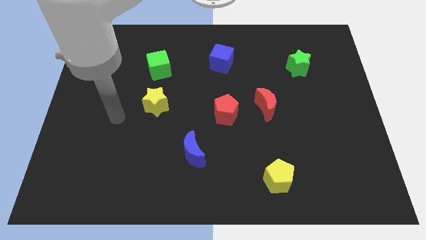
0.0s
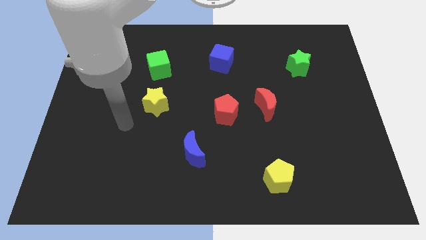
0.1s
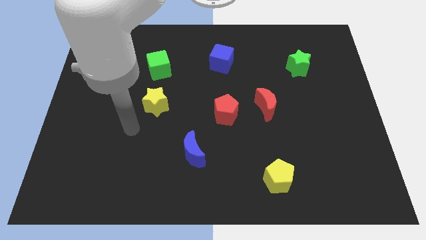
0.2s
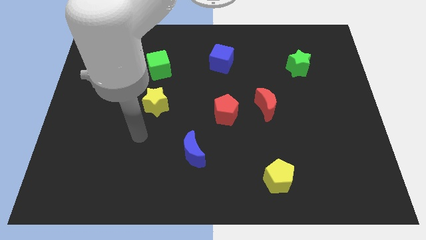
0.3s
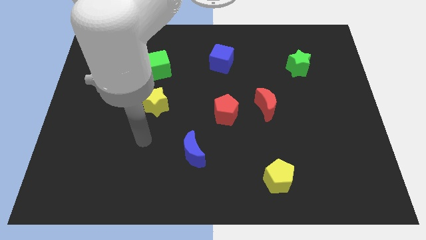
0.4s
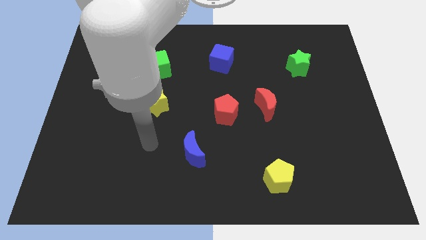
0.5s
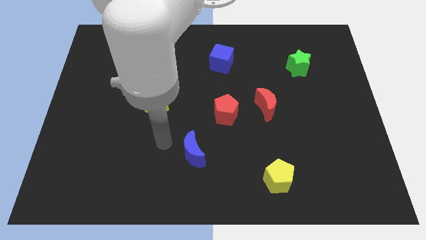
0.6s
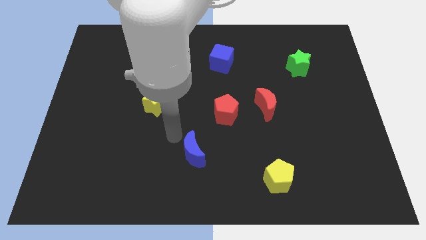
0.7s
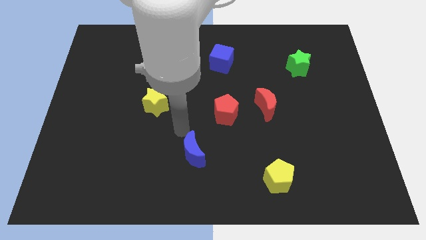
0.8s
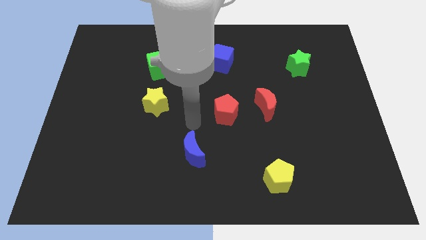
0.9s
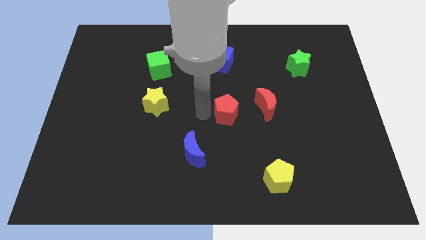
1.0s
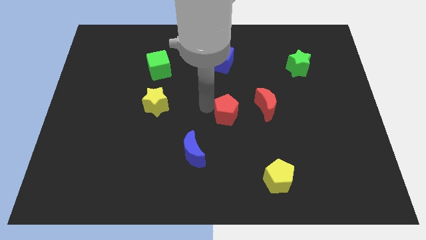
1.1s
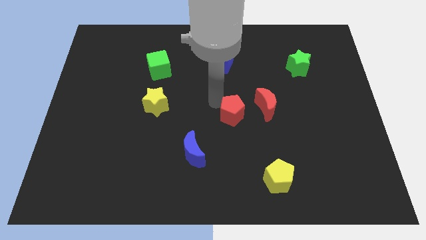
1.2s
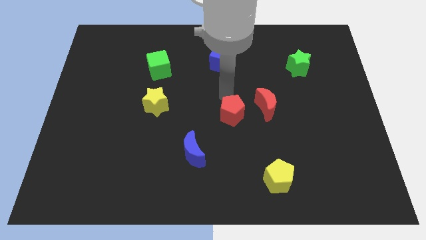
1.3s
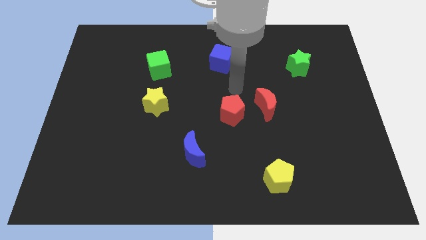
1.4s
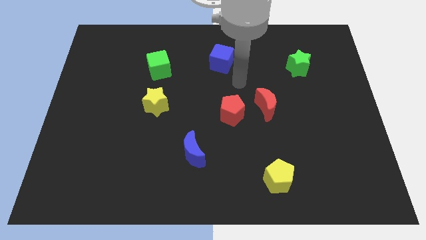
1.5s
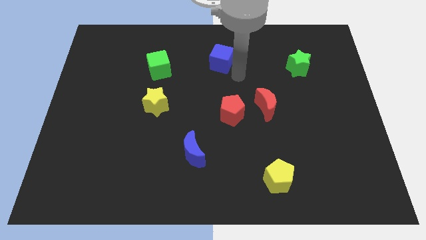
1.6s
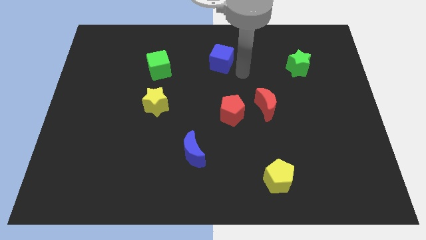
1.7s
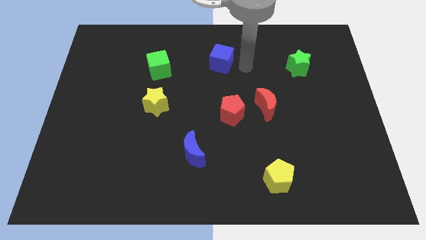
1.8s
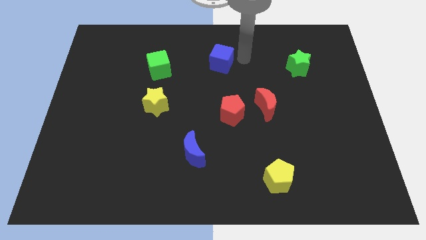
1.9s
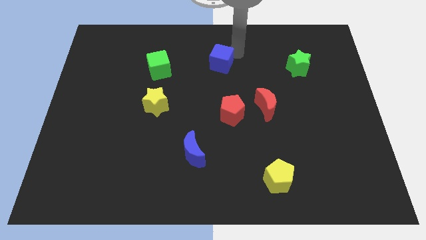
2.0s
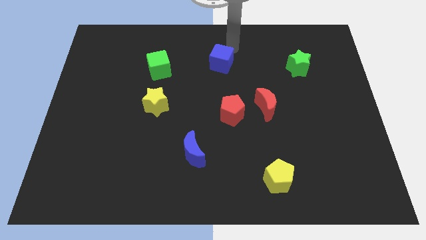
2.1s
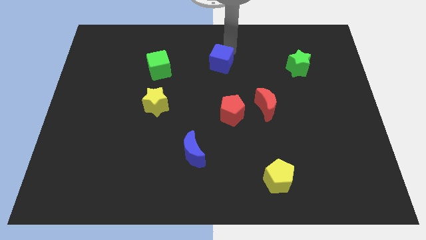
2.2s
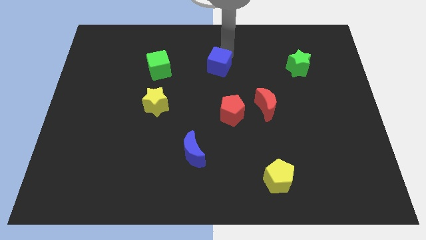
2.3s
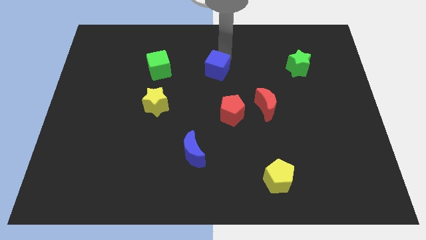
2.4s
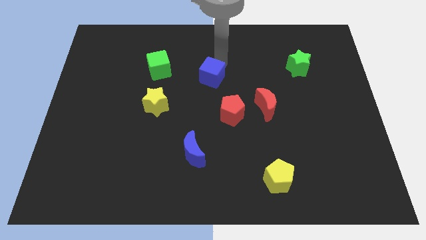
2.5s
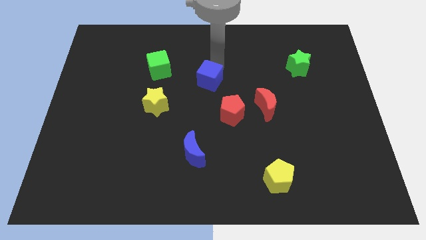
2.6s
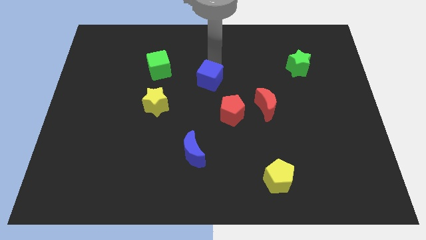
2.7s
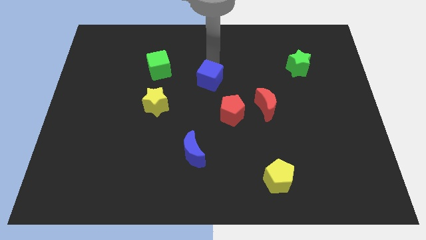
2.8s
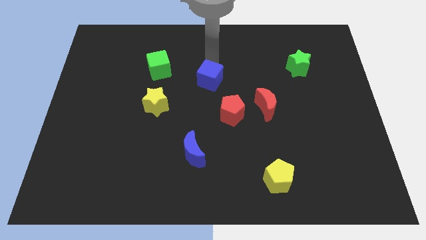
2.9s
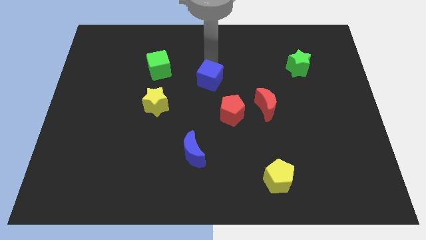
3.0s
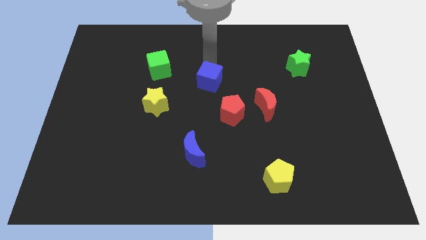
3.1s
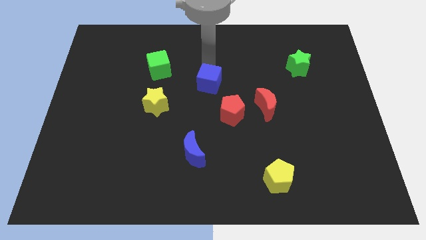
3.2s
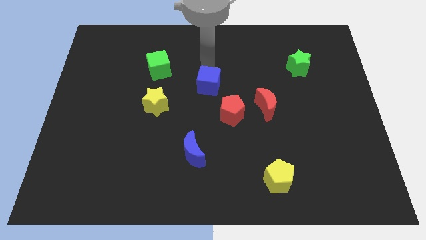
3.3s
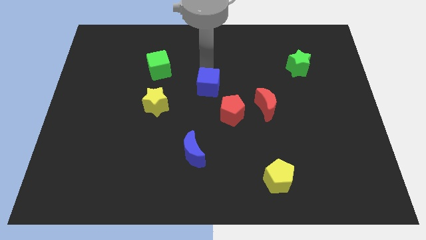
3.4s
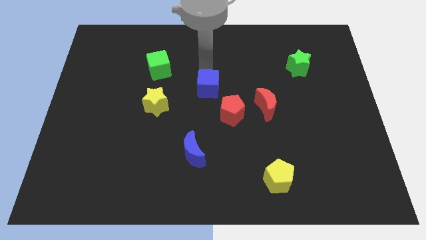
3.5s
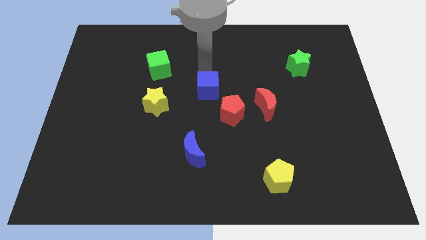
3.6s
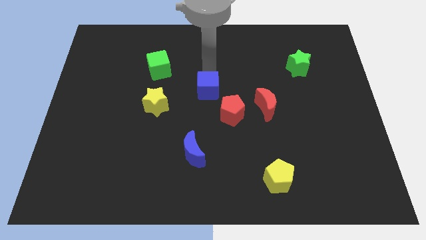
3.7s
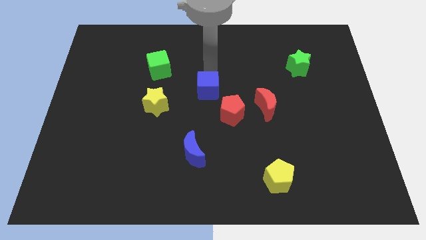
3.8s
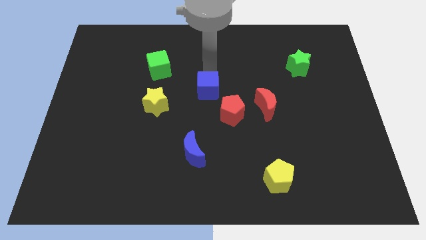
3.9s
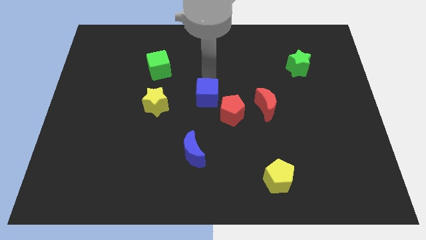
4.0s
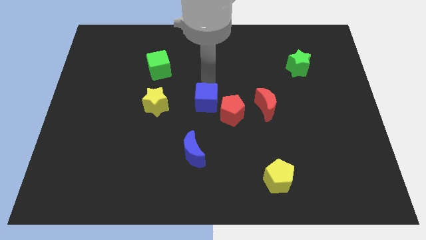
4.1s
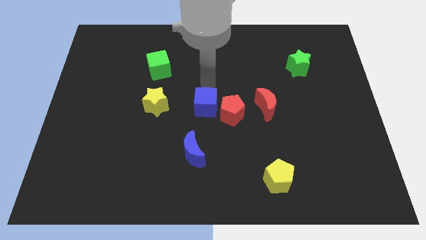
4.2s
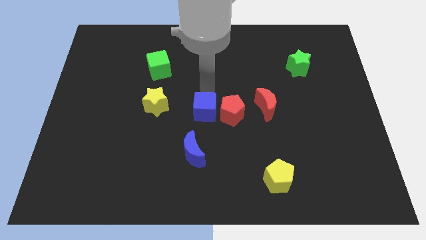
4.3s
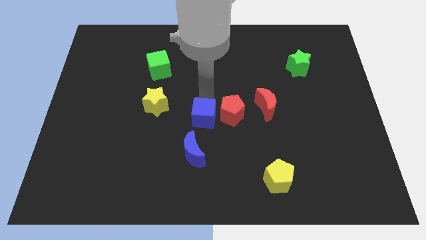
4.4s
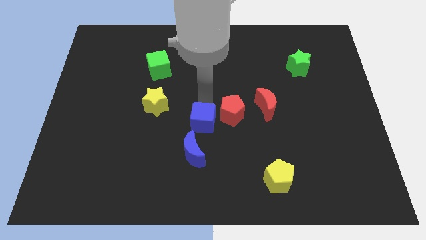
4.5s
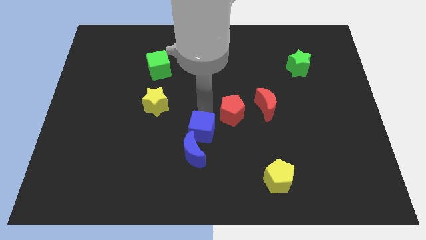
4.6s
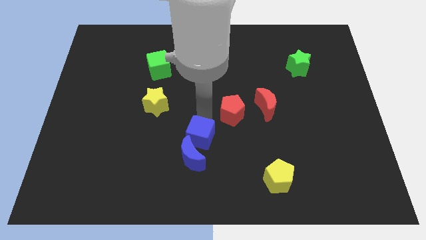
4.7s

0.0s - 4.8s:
move the blue cube close to the blue moon

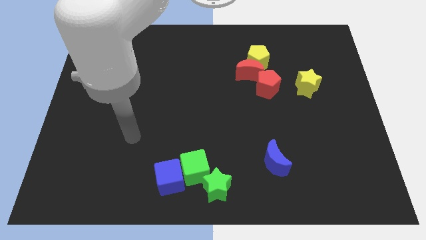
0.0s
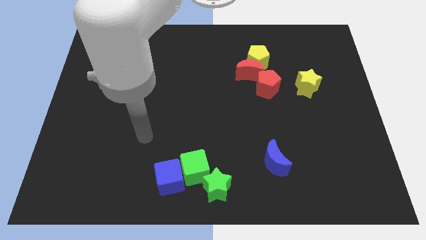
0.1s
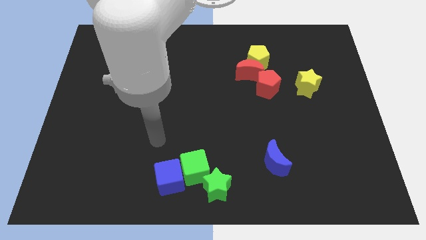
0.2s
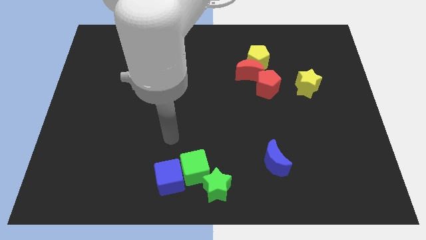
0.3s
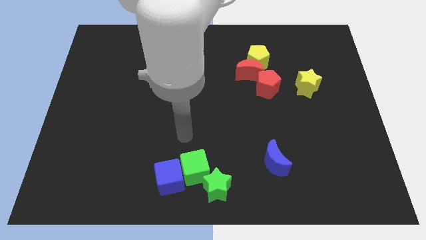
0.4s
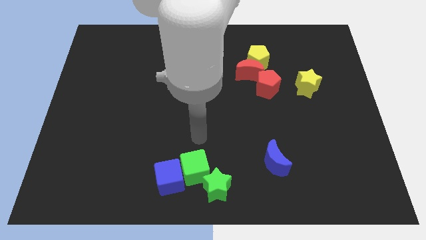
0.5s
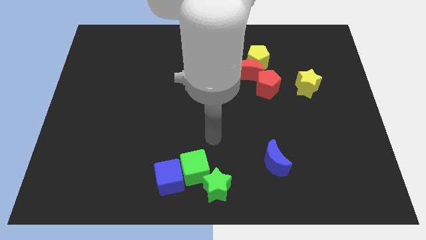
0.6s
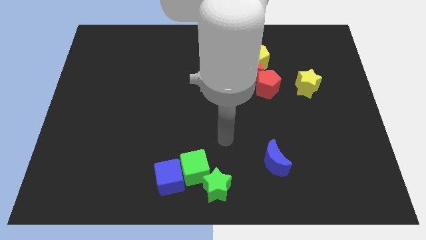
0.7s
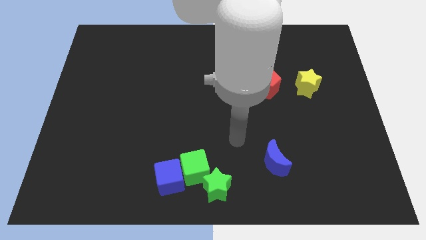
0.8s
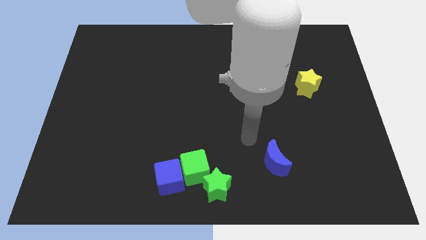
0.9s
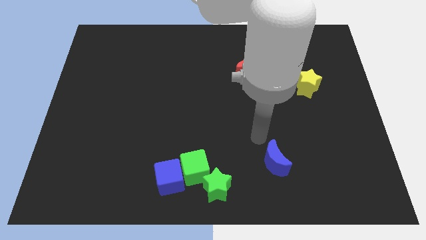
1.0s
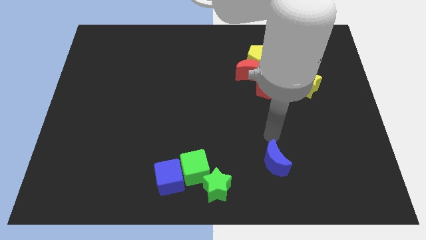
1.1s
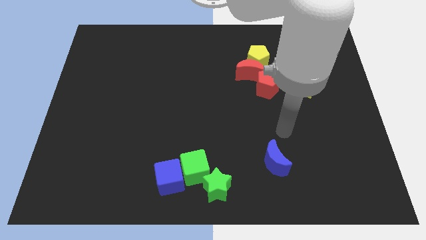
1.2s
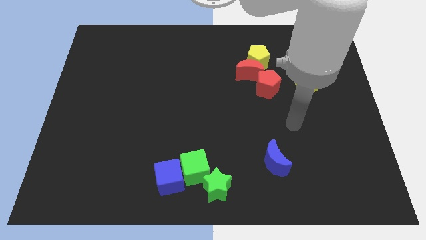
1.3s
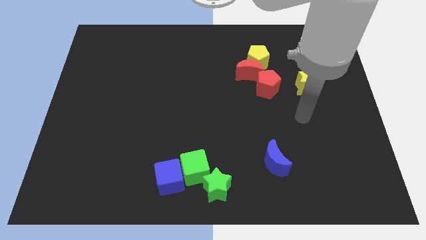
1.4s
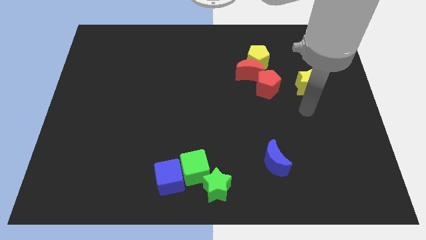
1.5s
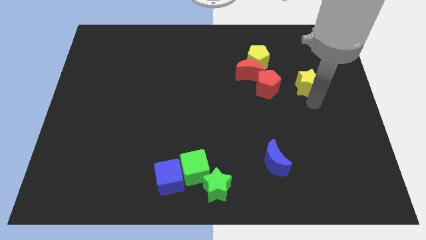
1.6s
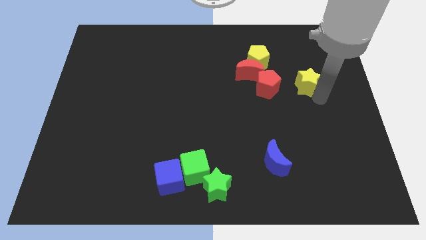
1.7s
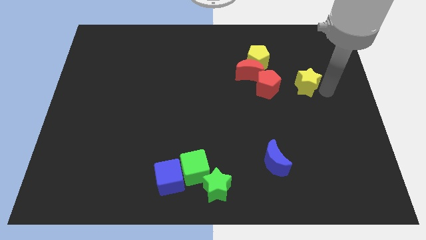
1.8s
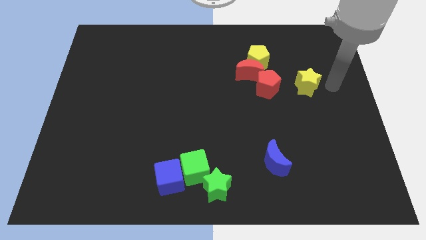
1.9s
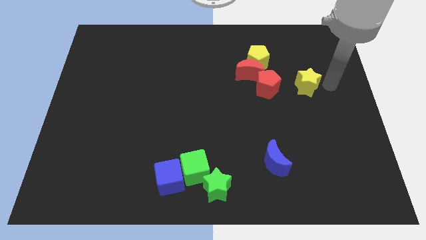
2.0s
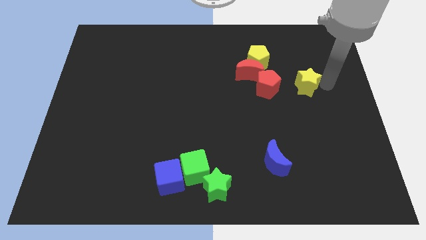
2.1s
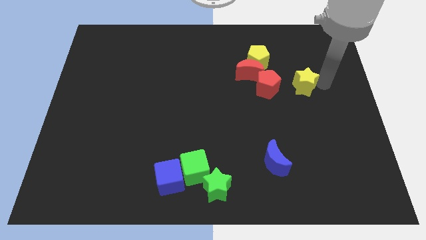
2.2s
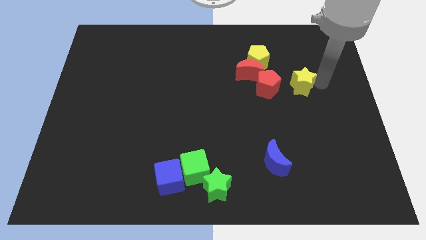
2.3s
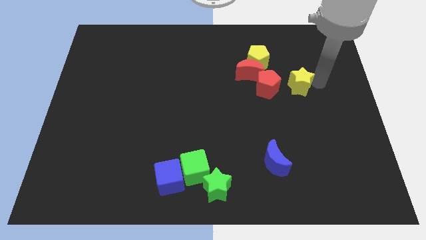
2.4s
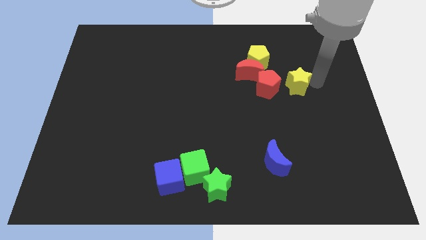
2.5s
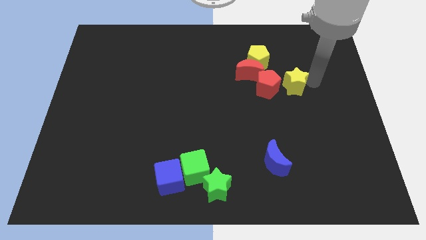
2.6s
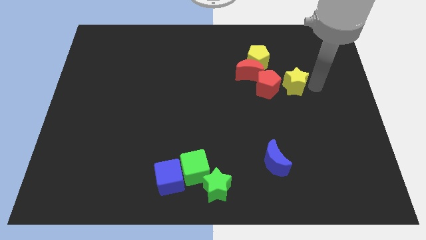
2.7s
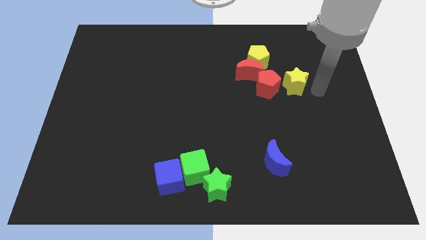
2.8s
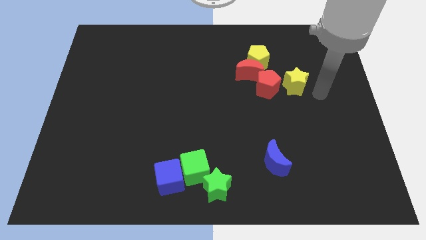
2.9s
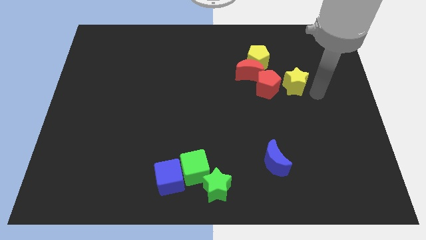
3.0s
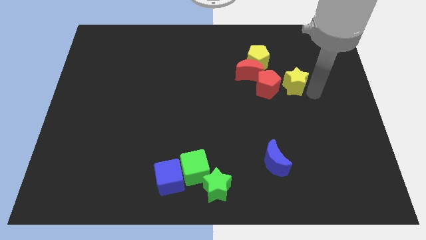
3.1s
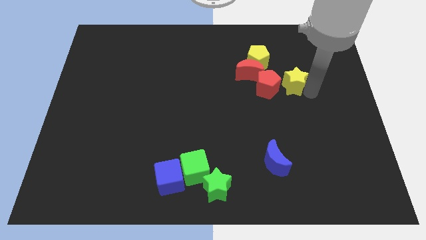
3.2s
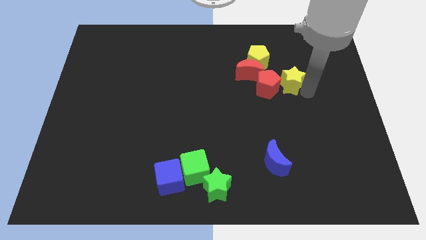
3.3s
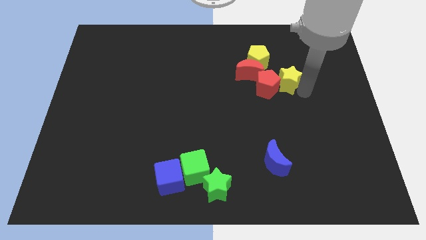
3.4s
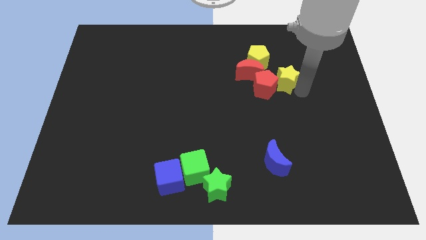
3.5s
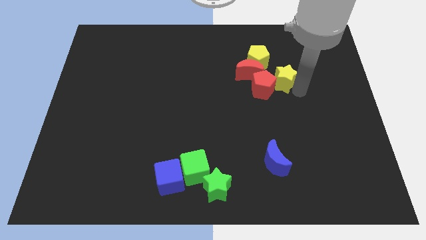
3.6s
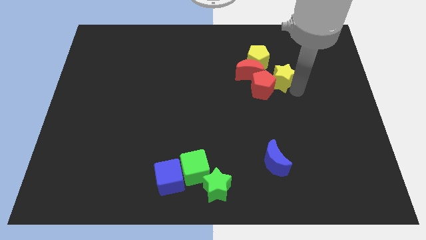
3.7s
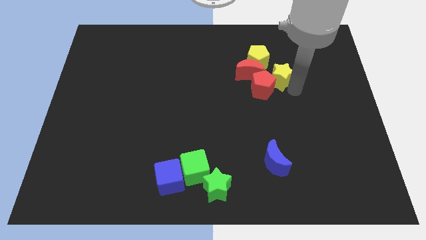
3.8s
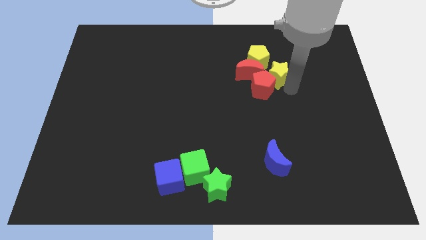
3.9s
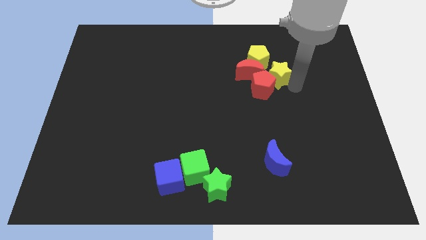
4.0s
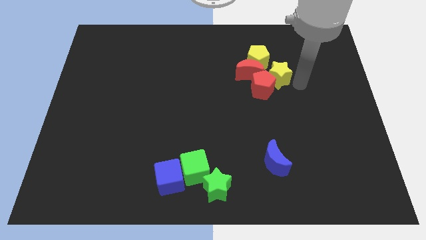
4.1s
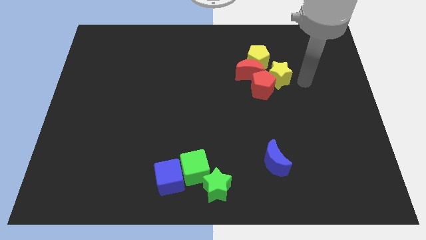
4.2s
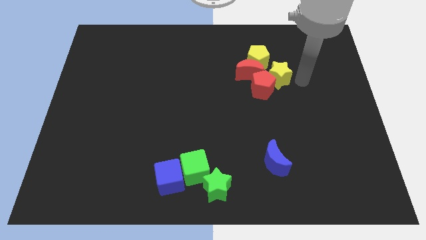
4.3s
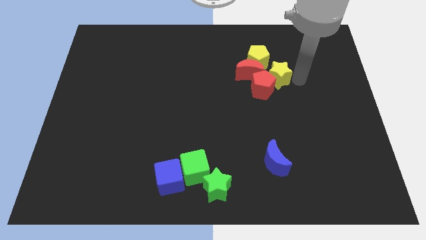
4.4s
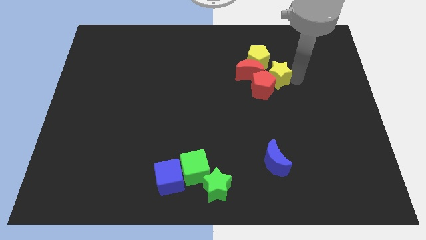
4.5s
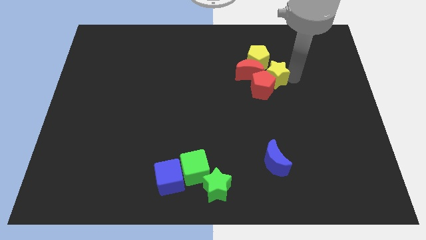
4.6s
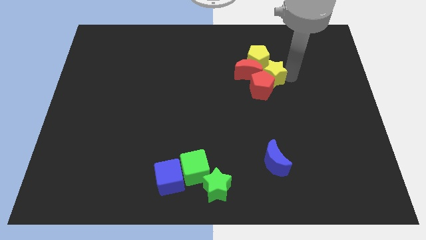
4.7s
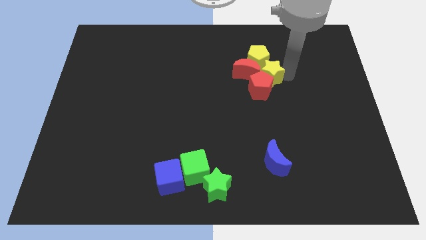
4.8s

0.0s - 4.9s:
put the yellow star close to the red moon
